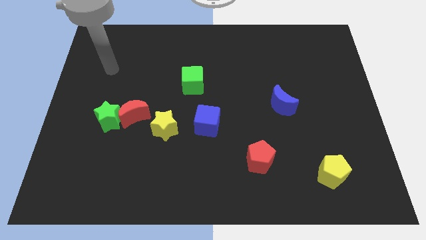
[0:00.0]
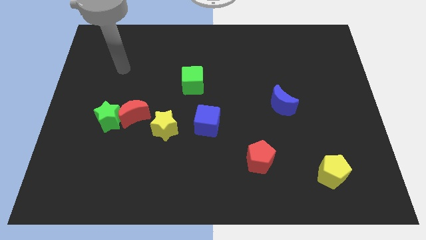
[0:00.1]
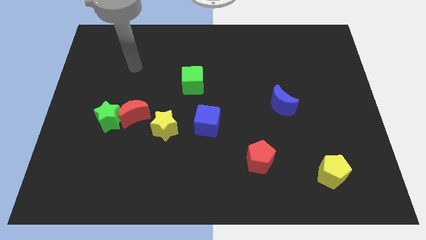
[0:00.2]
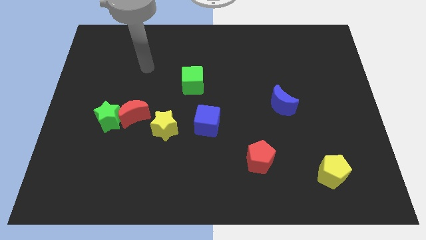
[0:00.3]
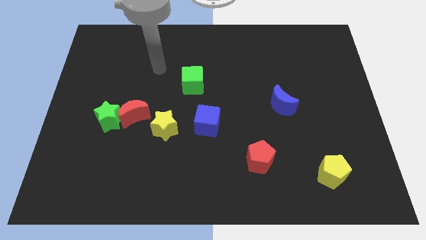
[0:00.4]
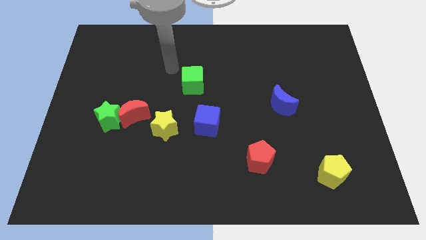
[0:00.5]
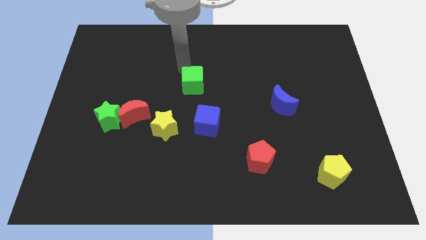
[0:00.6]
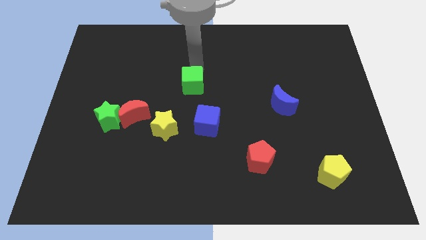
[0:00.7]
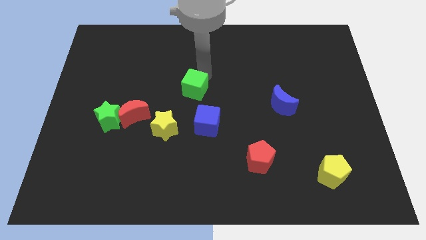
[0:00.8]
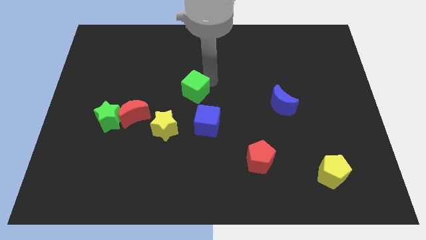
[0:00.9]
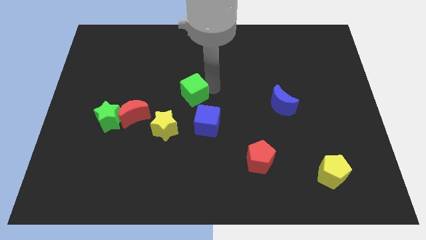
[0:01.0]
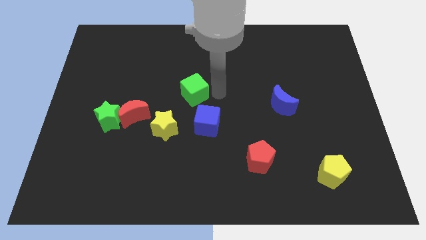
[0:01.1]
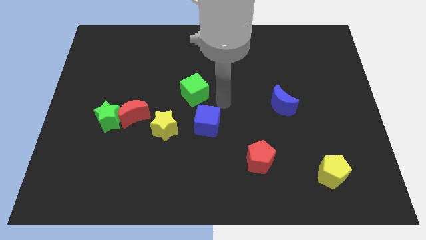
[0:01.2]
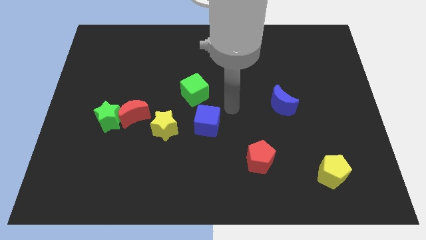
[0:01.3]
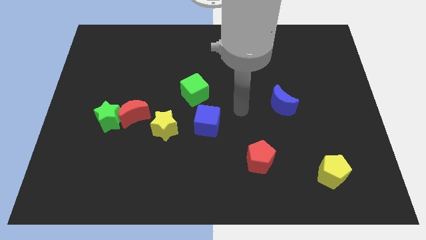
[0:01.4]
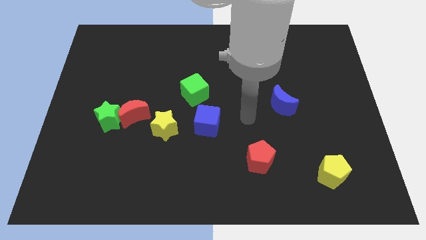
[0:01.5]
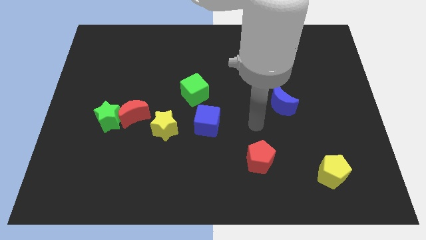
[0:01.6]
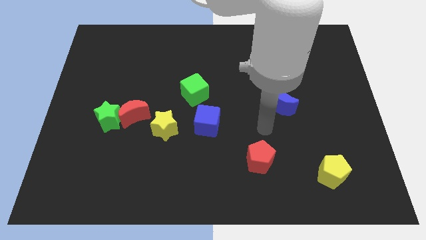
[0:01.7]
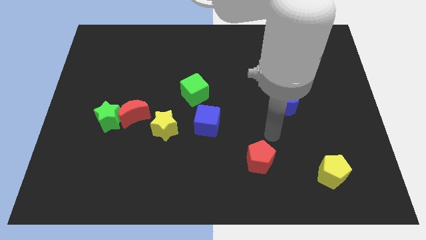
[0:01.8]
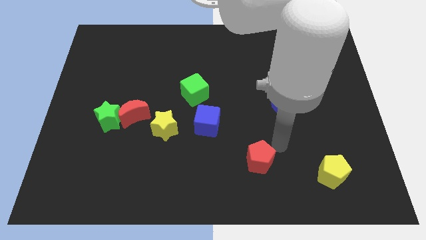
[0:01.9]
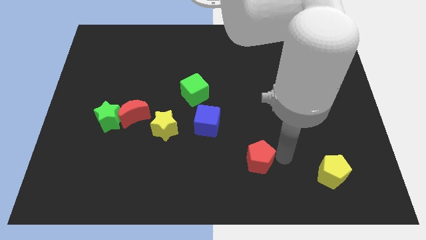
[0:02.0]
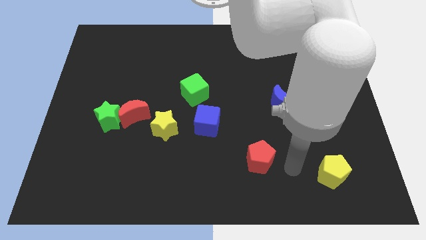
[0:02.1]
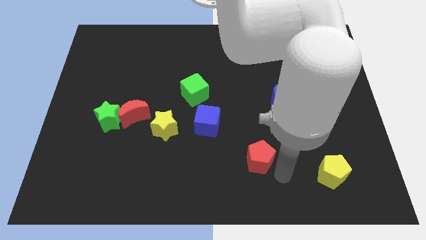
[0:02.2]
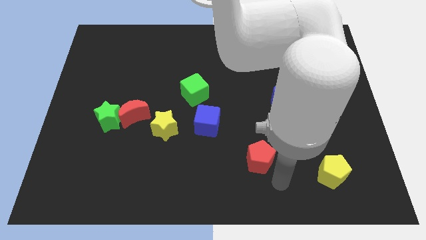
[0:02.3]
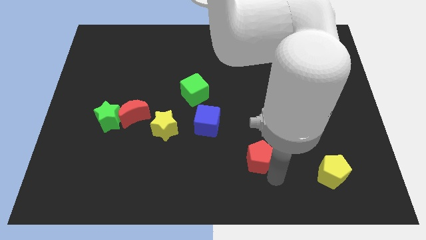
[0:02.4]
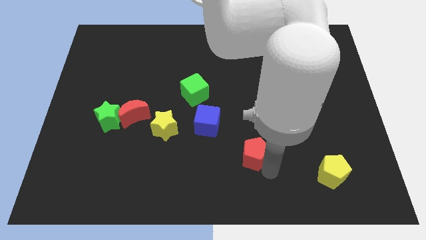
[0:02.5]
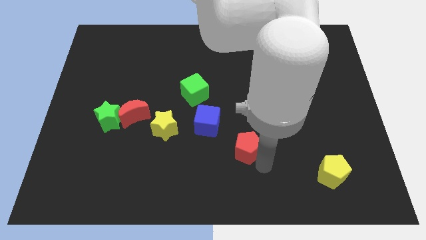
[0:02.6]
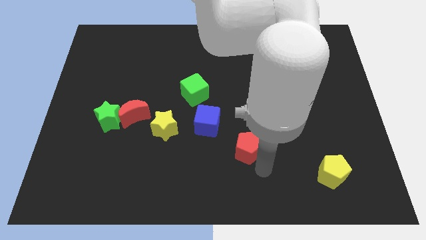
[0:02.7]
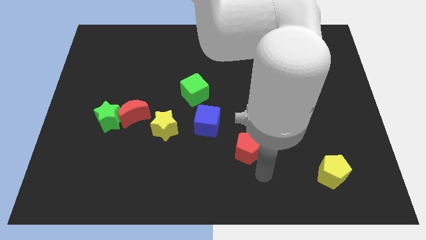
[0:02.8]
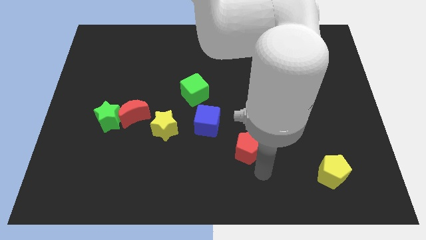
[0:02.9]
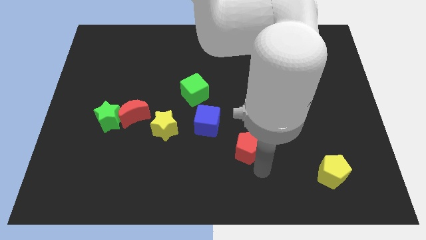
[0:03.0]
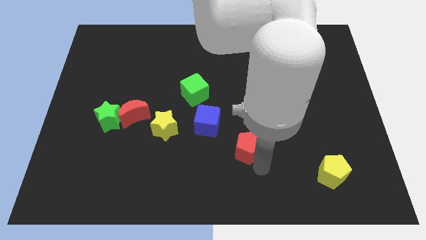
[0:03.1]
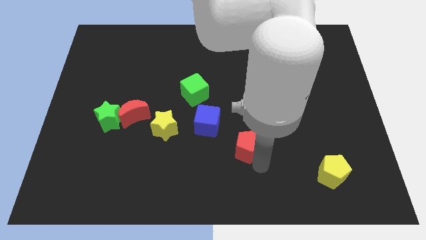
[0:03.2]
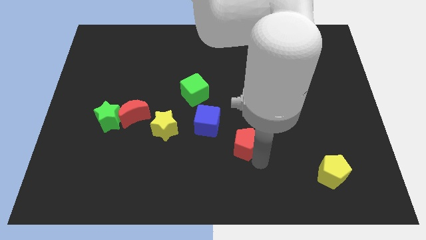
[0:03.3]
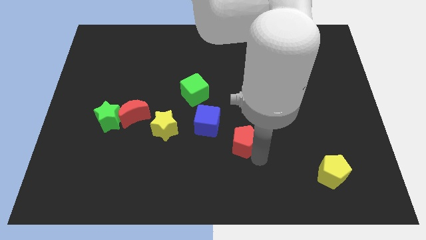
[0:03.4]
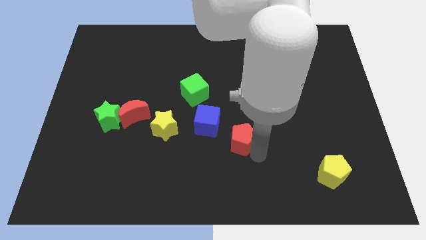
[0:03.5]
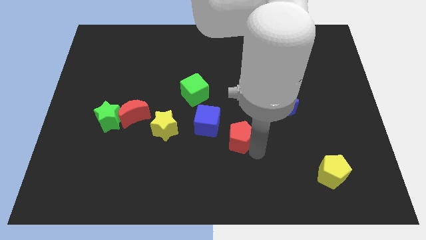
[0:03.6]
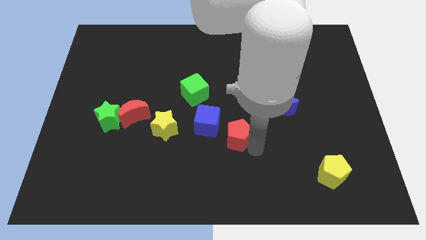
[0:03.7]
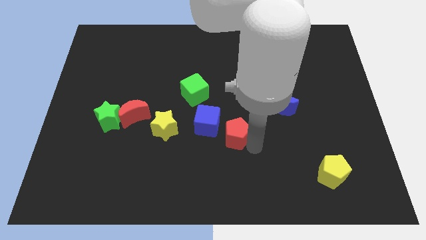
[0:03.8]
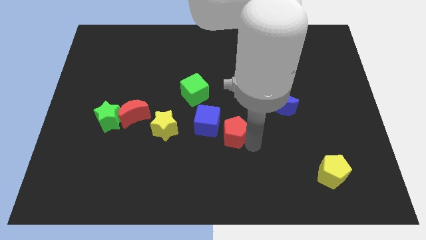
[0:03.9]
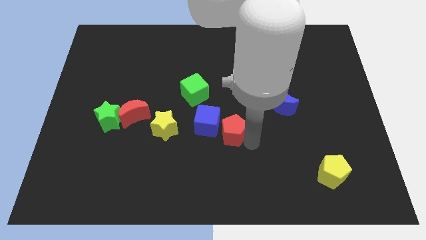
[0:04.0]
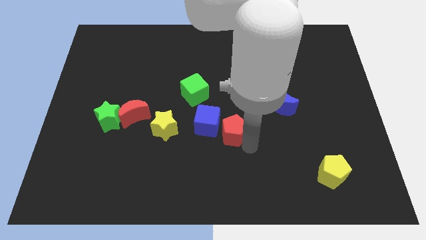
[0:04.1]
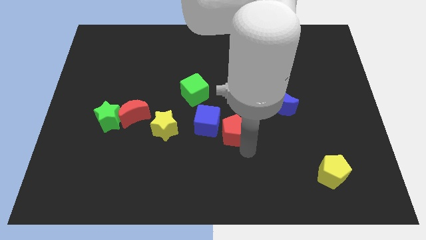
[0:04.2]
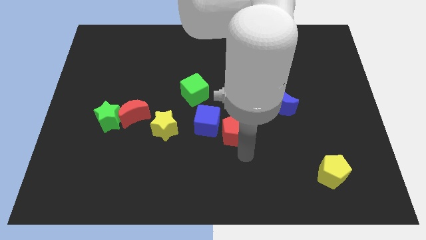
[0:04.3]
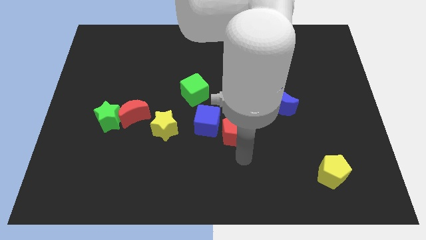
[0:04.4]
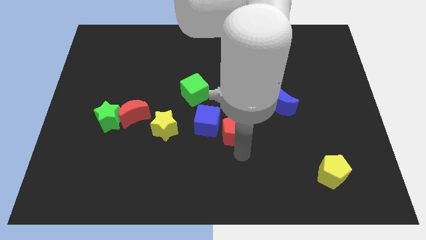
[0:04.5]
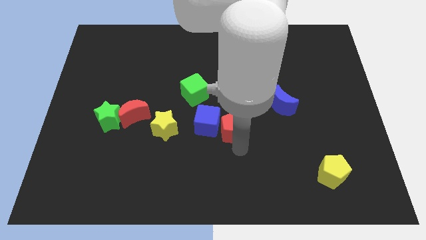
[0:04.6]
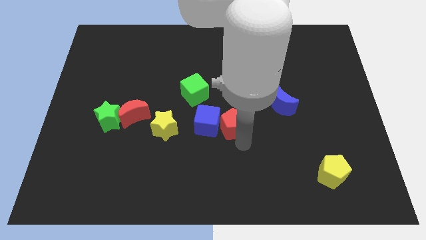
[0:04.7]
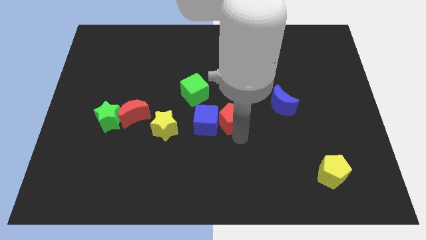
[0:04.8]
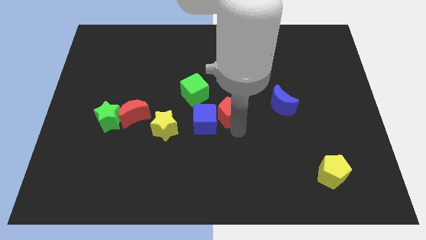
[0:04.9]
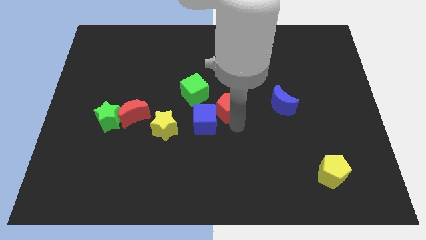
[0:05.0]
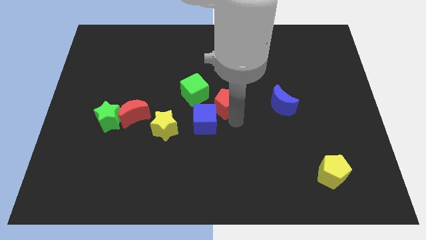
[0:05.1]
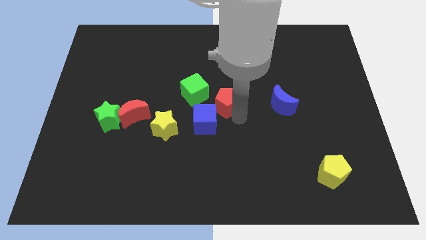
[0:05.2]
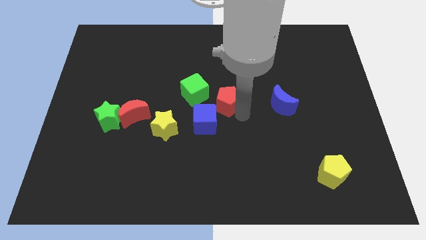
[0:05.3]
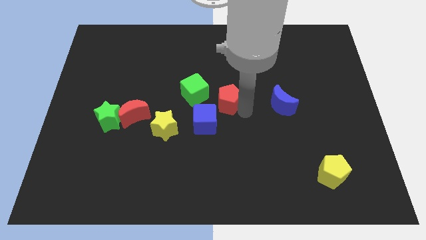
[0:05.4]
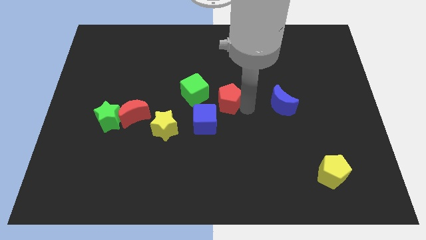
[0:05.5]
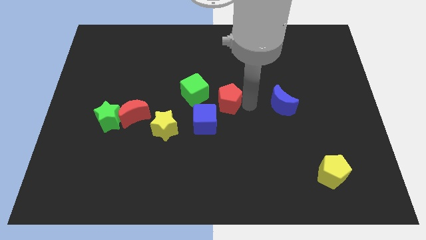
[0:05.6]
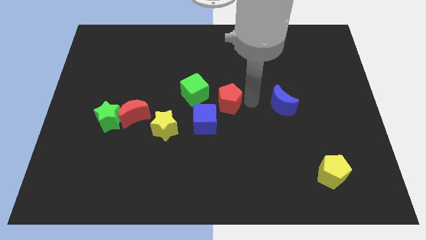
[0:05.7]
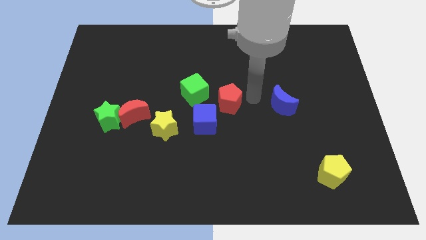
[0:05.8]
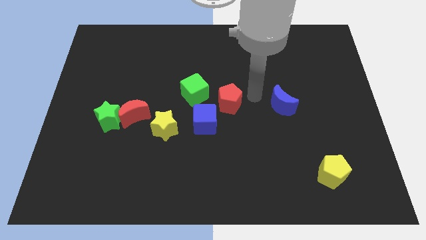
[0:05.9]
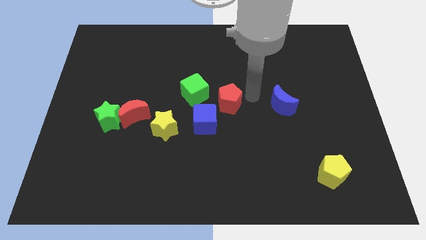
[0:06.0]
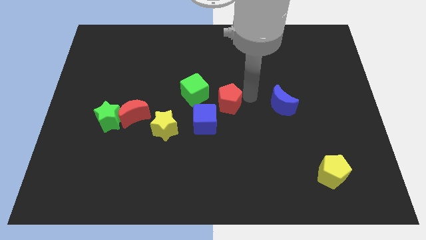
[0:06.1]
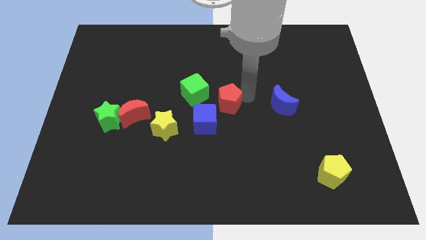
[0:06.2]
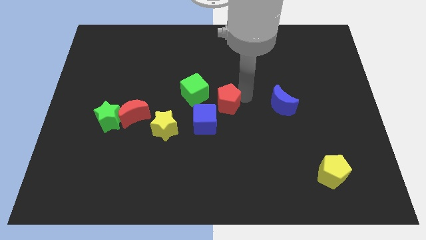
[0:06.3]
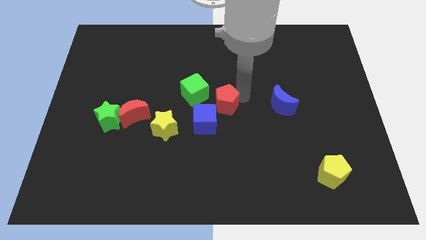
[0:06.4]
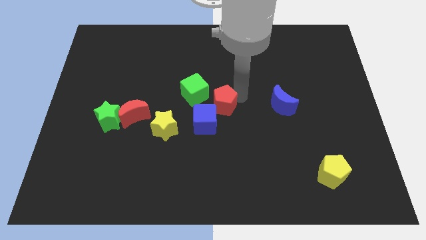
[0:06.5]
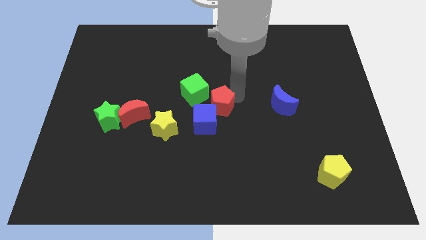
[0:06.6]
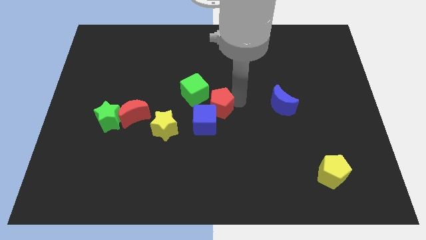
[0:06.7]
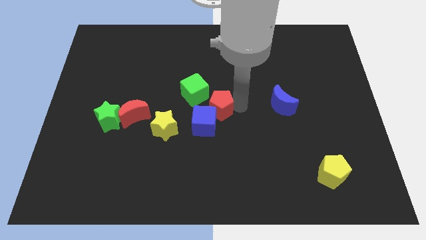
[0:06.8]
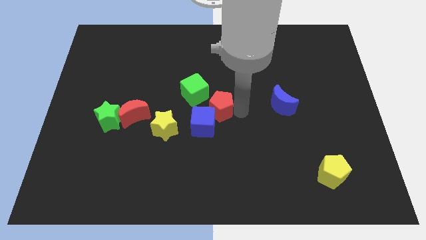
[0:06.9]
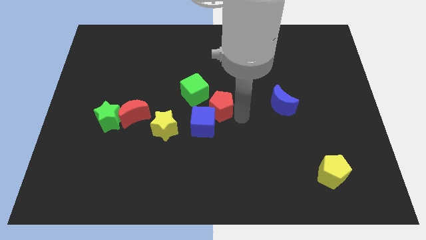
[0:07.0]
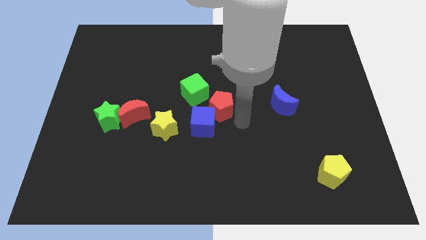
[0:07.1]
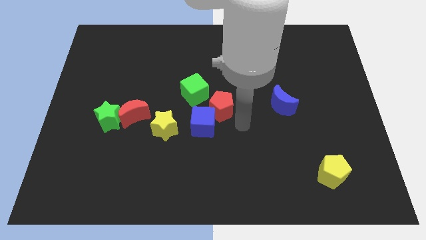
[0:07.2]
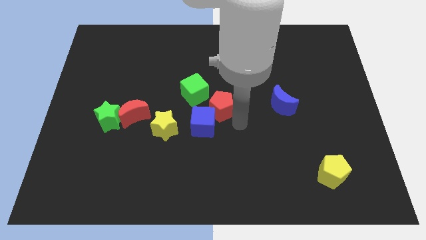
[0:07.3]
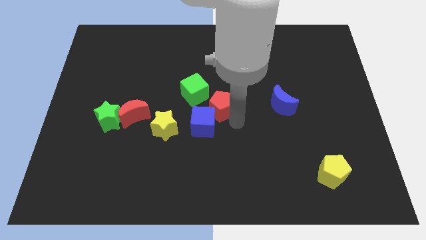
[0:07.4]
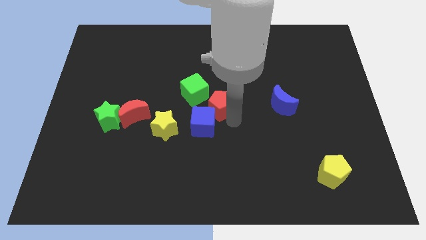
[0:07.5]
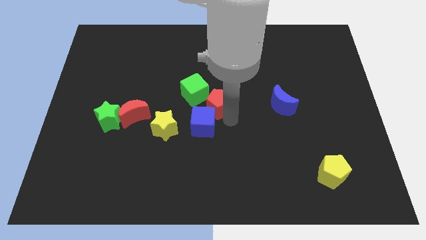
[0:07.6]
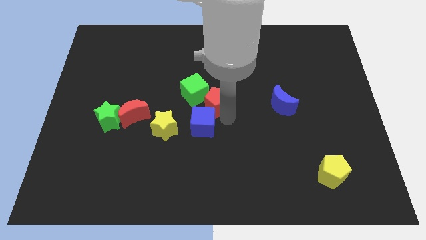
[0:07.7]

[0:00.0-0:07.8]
push the red pentagon to the green cube
